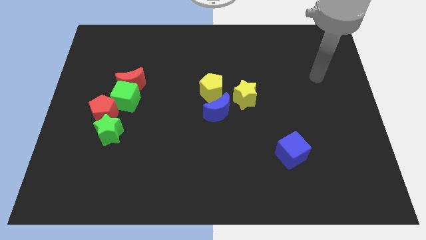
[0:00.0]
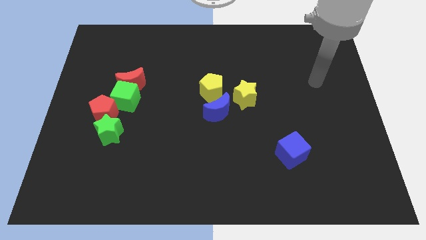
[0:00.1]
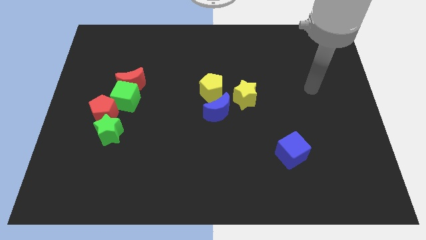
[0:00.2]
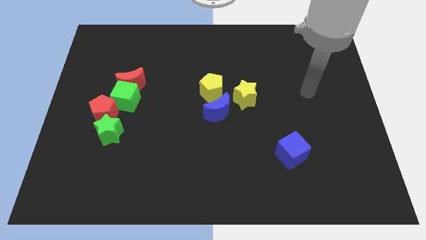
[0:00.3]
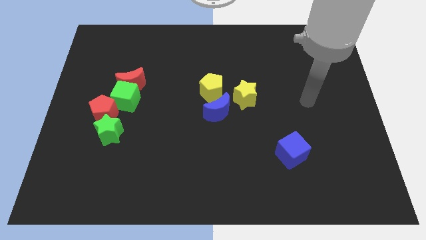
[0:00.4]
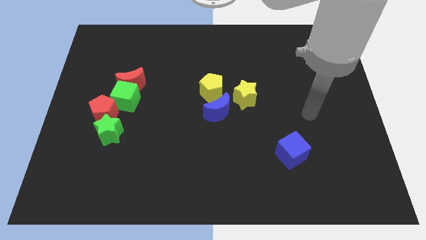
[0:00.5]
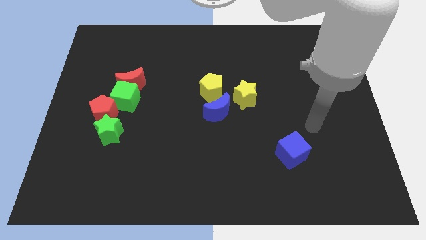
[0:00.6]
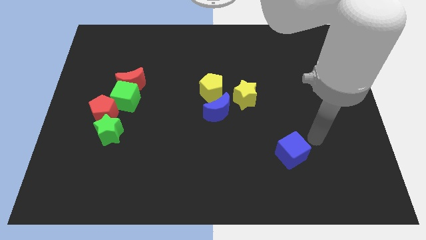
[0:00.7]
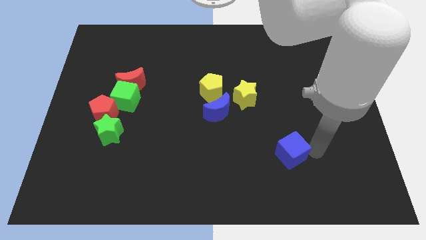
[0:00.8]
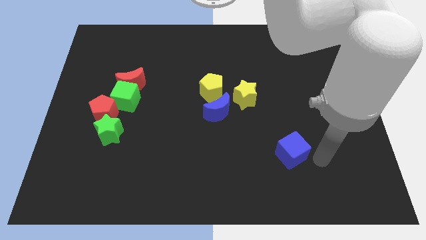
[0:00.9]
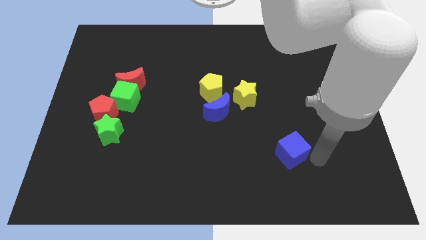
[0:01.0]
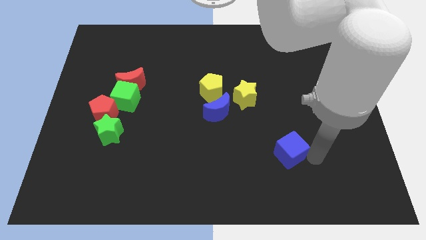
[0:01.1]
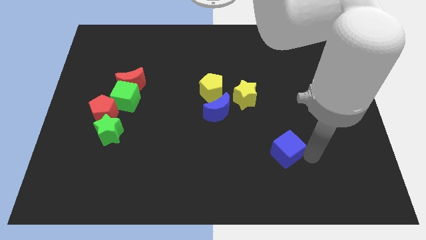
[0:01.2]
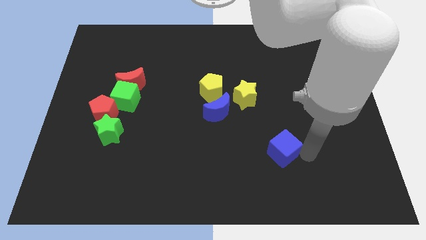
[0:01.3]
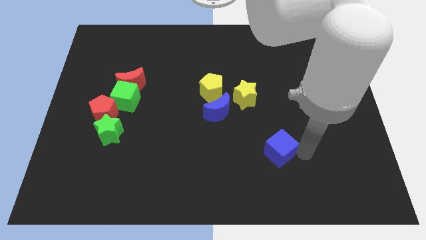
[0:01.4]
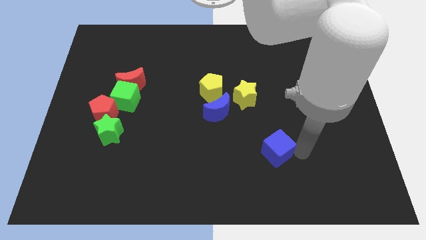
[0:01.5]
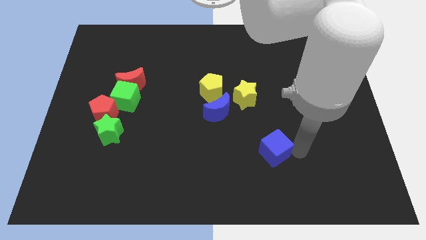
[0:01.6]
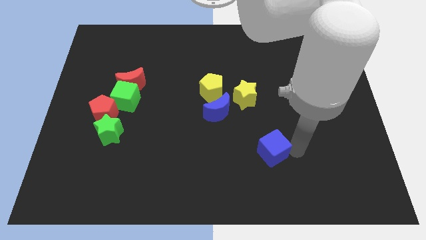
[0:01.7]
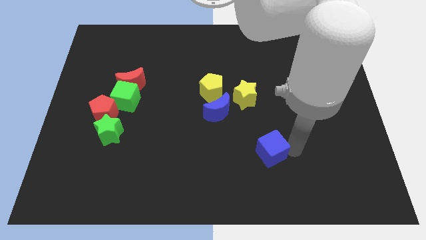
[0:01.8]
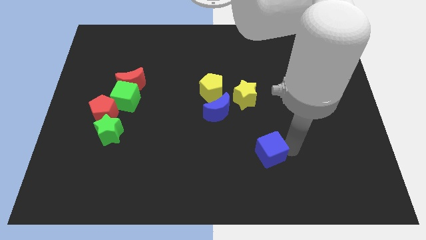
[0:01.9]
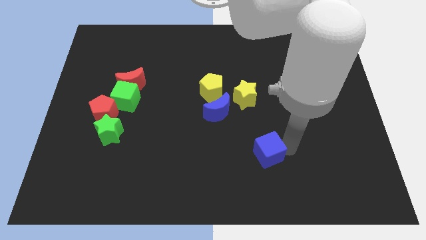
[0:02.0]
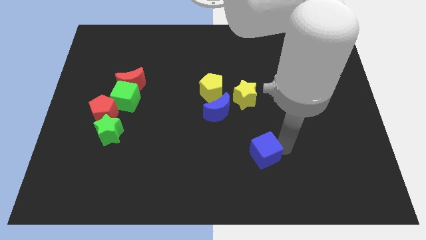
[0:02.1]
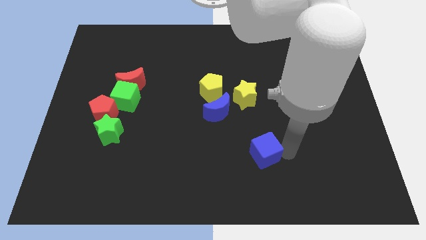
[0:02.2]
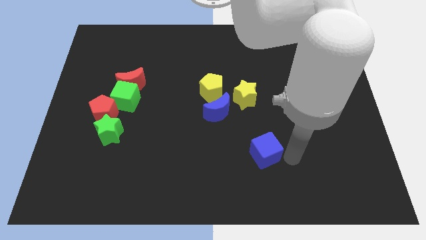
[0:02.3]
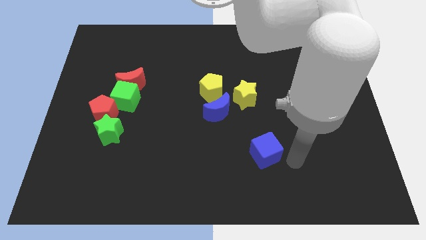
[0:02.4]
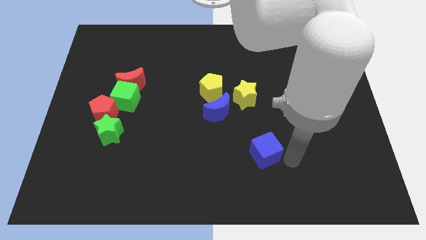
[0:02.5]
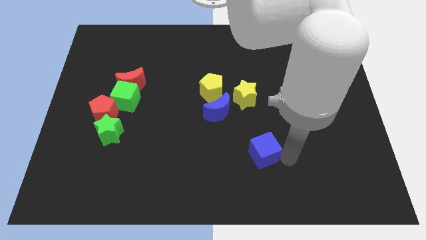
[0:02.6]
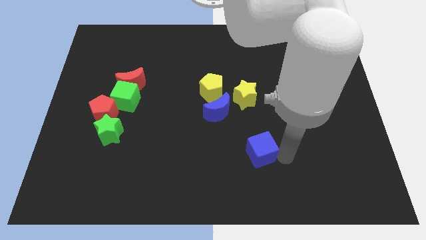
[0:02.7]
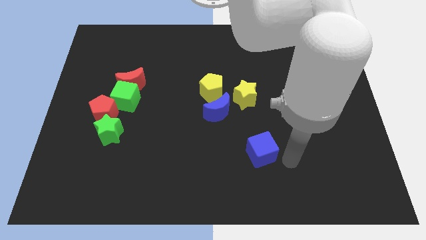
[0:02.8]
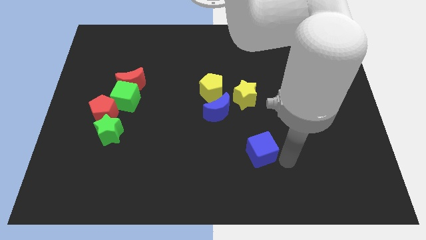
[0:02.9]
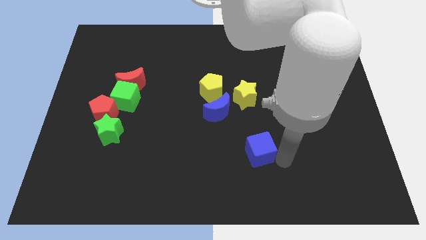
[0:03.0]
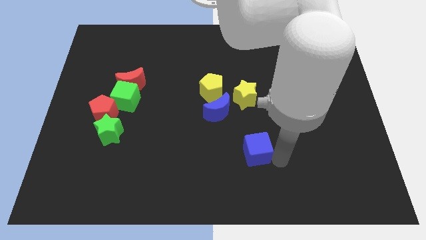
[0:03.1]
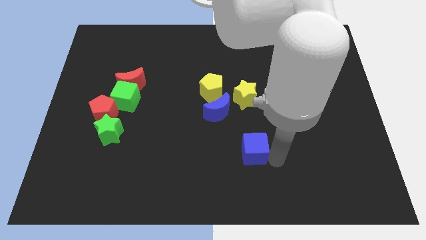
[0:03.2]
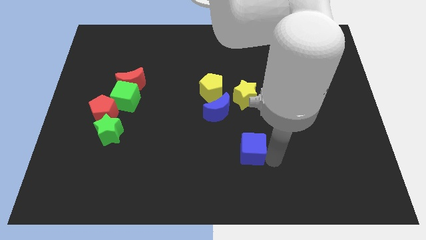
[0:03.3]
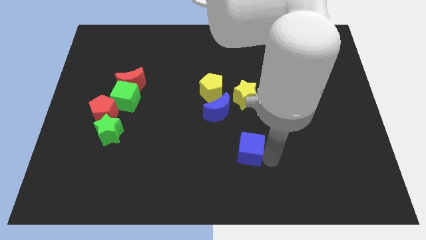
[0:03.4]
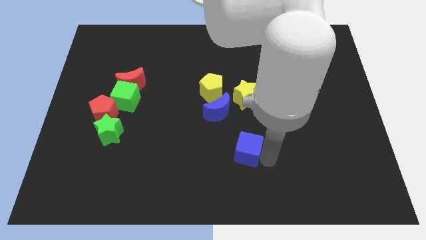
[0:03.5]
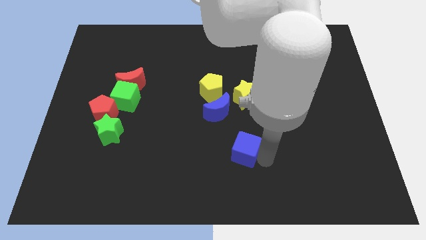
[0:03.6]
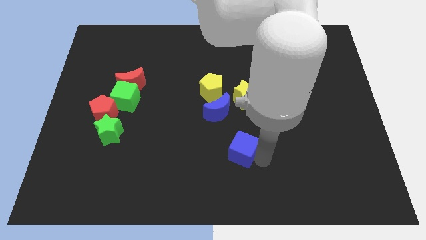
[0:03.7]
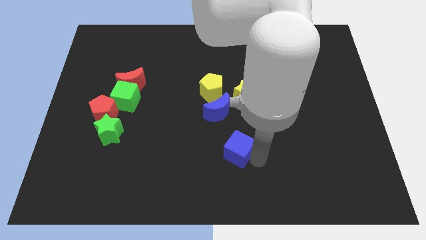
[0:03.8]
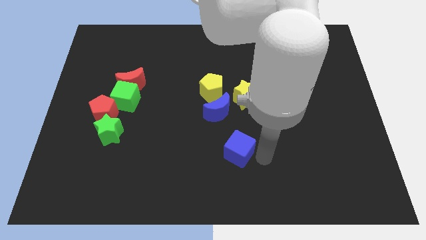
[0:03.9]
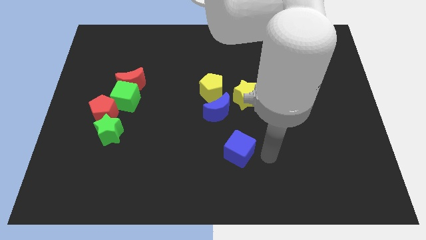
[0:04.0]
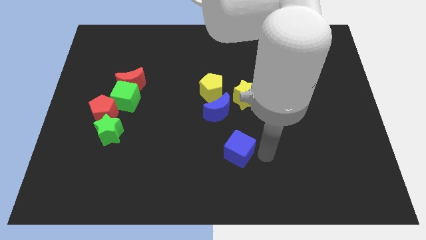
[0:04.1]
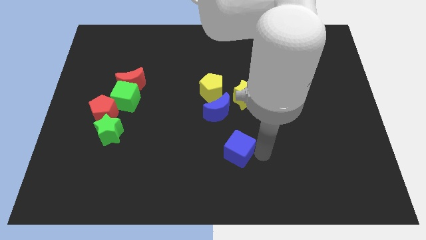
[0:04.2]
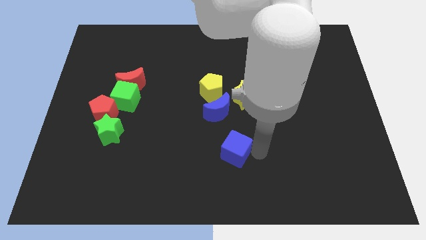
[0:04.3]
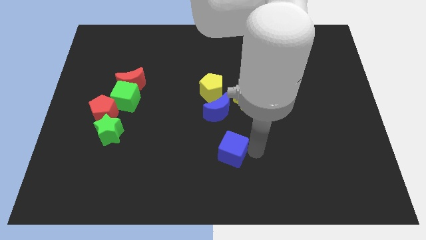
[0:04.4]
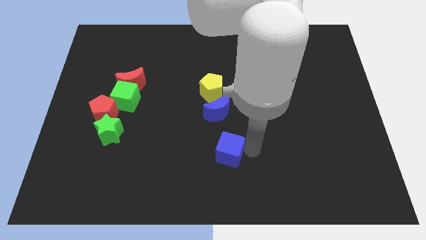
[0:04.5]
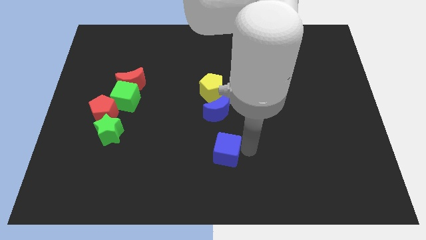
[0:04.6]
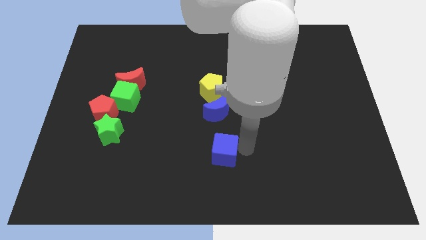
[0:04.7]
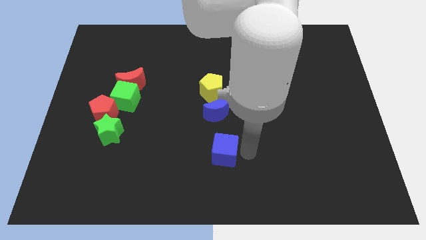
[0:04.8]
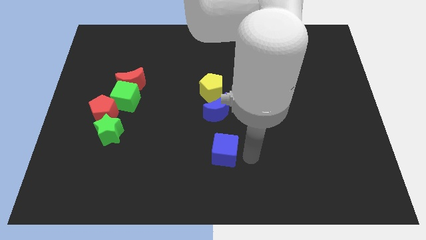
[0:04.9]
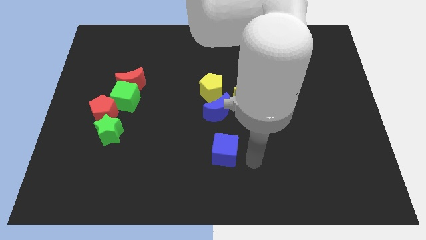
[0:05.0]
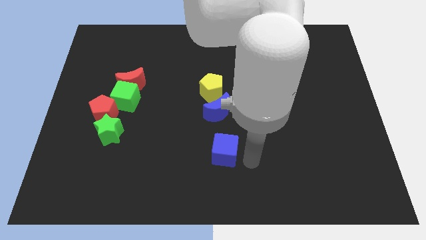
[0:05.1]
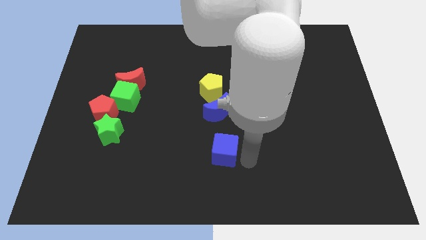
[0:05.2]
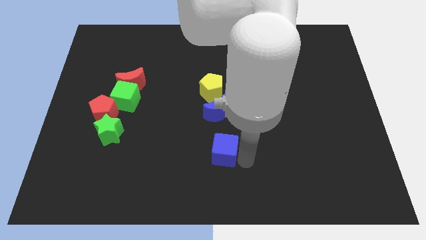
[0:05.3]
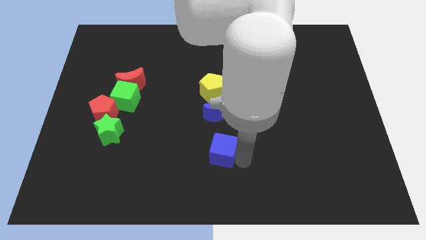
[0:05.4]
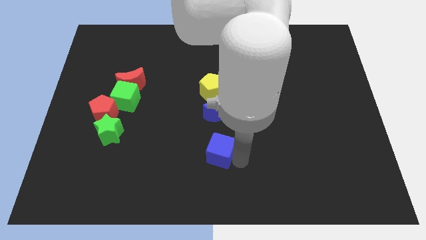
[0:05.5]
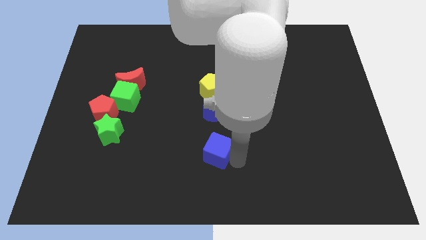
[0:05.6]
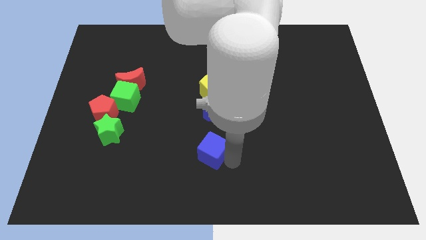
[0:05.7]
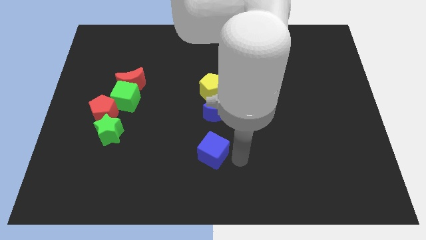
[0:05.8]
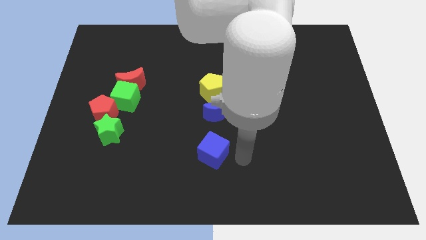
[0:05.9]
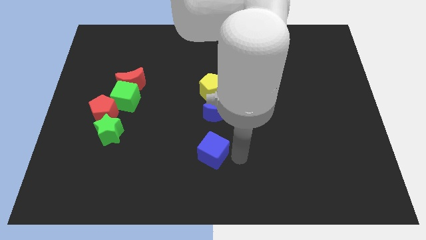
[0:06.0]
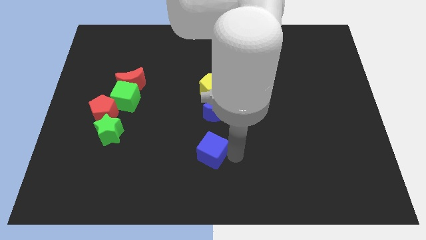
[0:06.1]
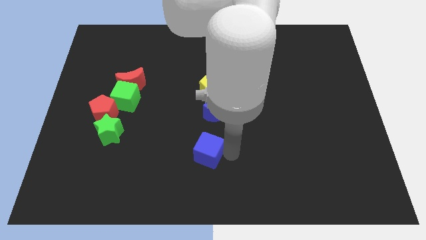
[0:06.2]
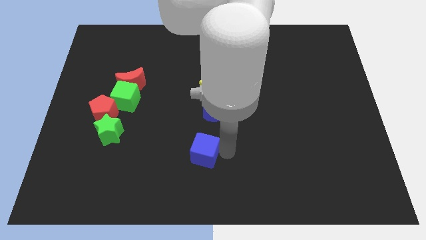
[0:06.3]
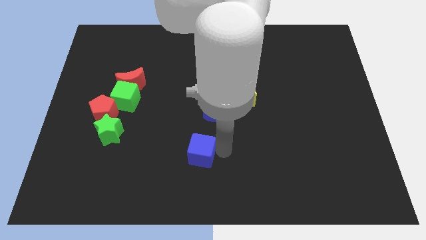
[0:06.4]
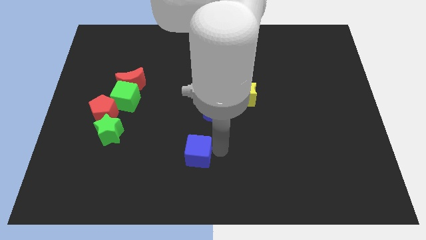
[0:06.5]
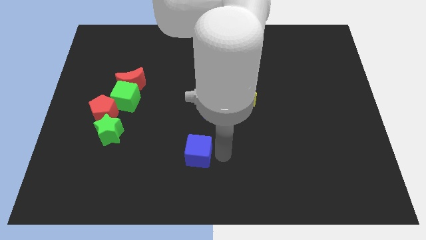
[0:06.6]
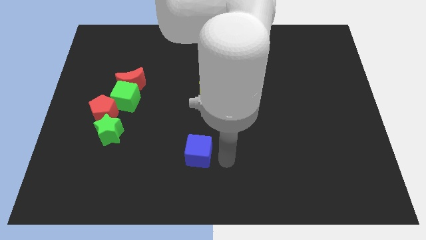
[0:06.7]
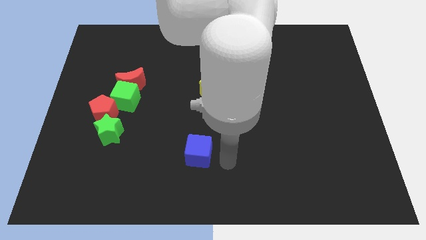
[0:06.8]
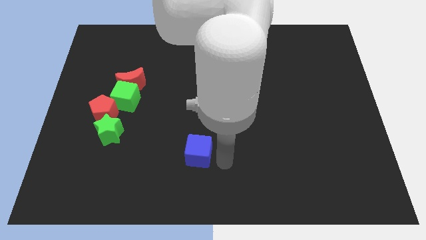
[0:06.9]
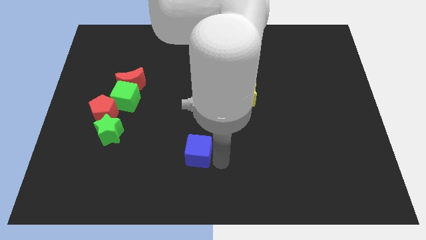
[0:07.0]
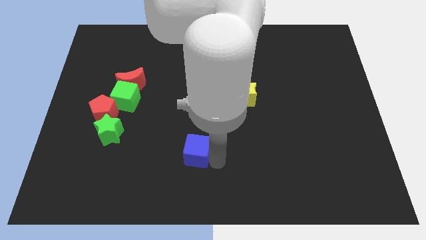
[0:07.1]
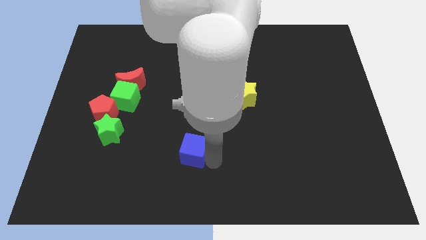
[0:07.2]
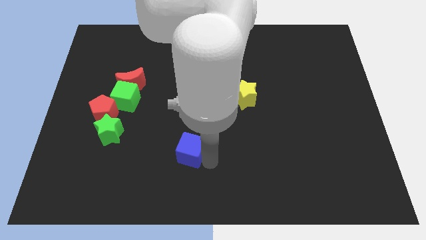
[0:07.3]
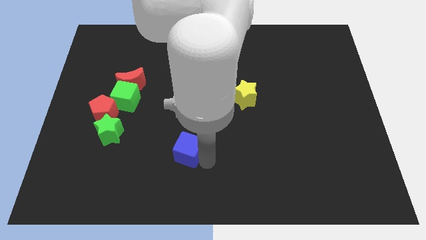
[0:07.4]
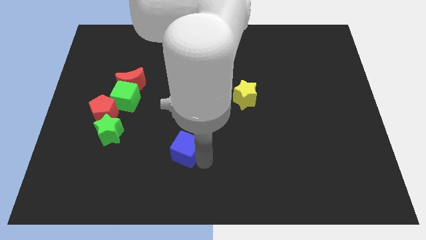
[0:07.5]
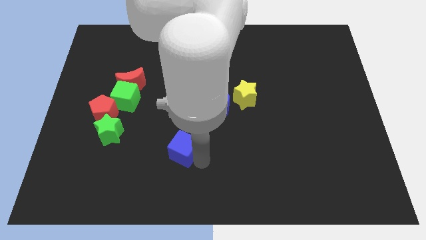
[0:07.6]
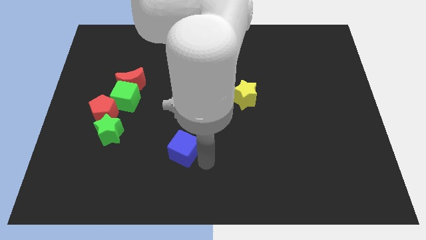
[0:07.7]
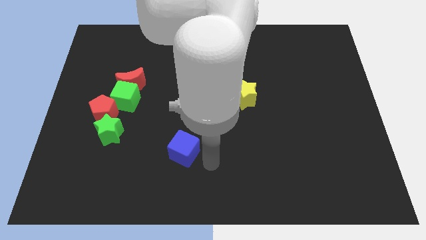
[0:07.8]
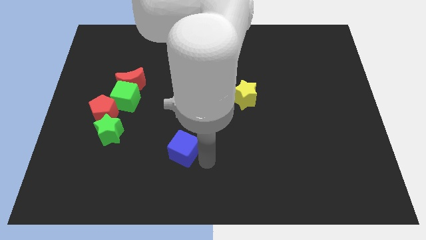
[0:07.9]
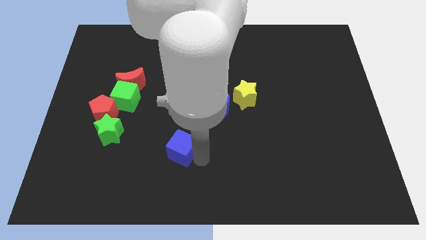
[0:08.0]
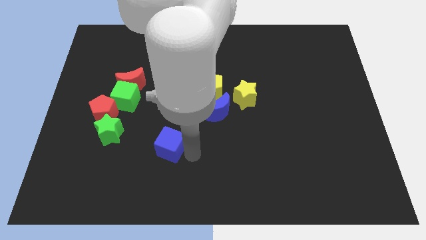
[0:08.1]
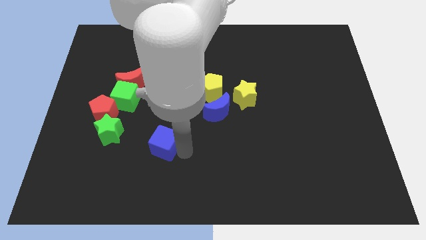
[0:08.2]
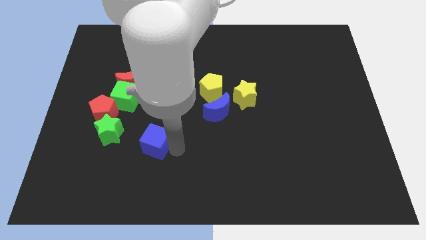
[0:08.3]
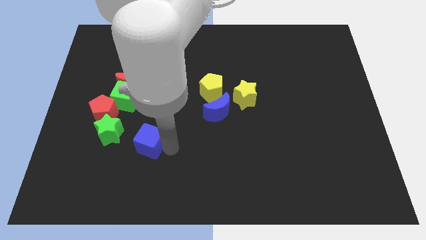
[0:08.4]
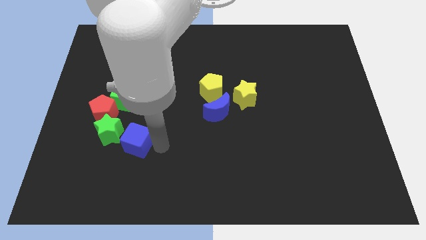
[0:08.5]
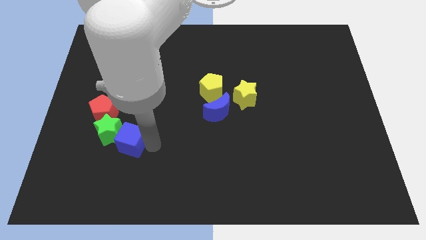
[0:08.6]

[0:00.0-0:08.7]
put the blue cube close to the green star
